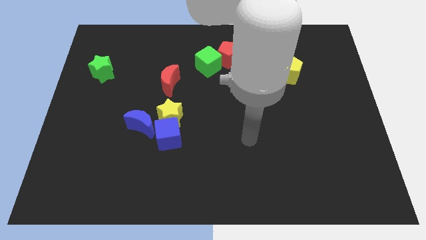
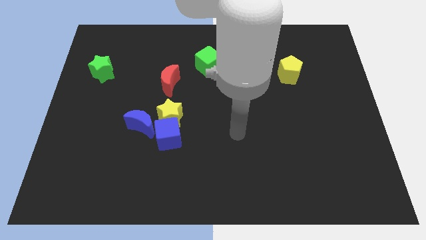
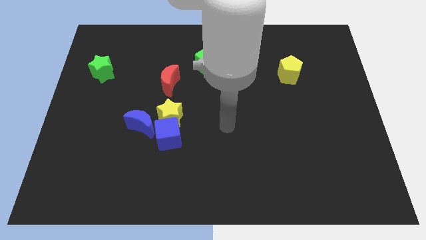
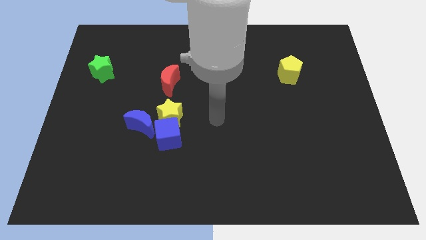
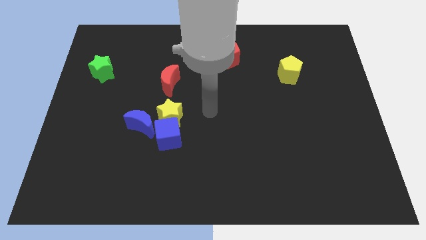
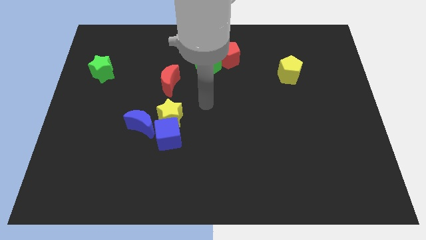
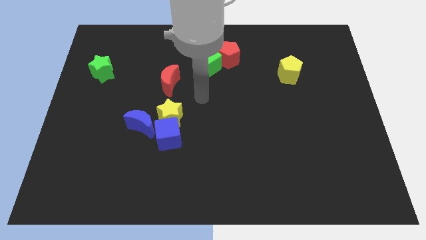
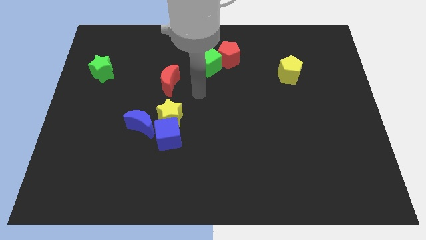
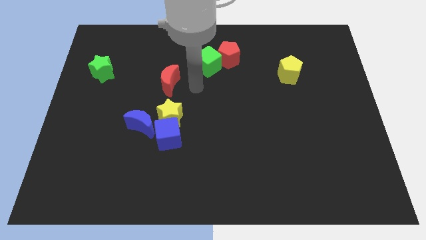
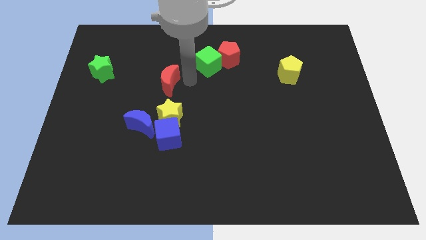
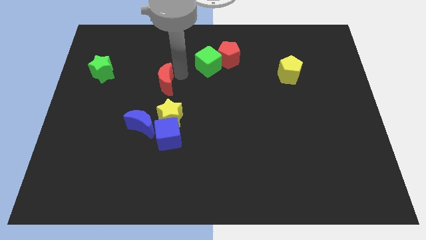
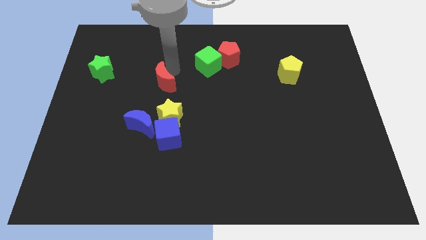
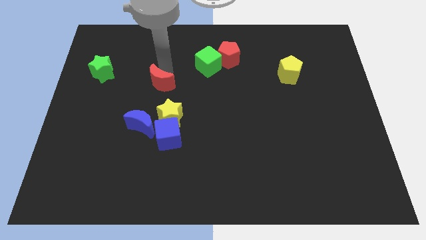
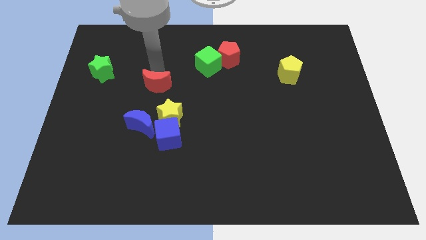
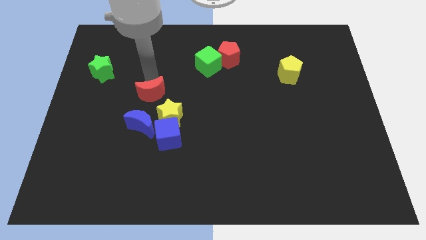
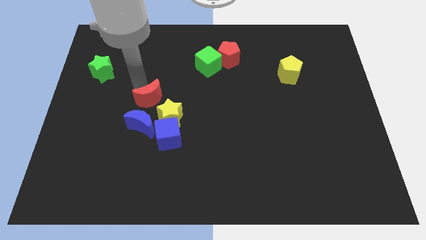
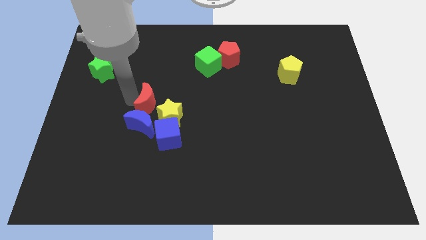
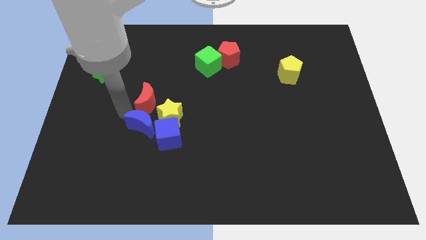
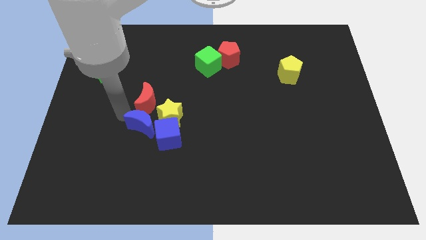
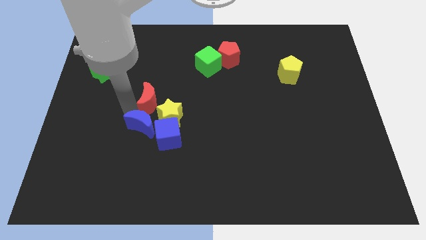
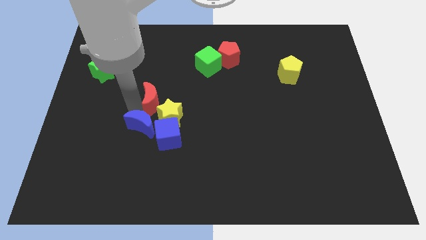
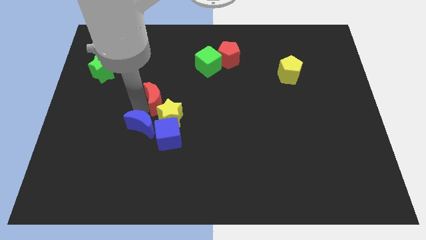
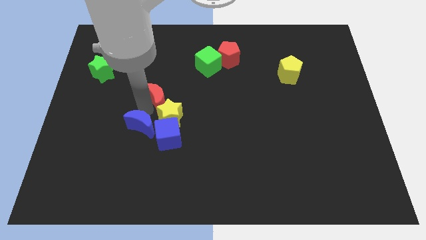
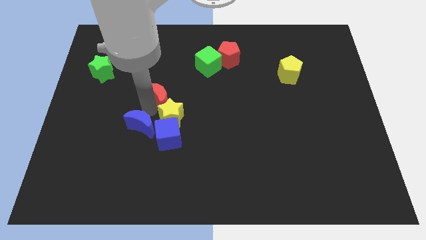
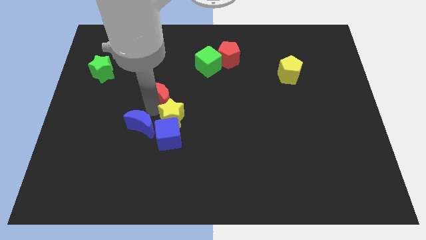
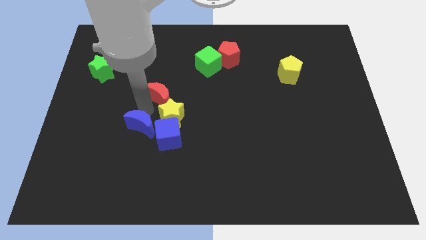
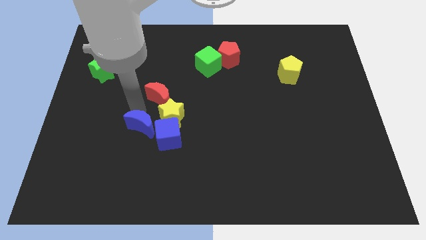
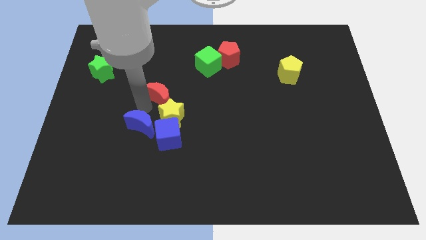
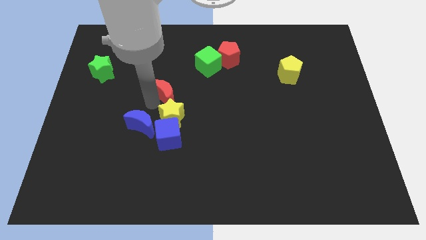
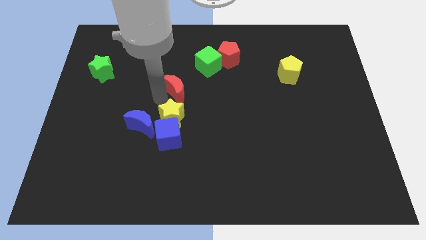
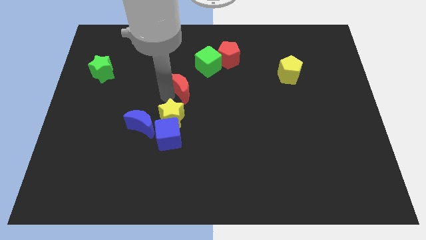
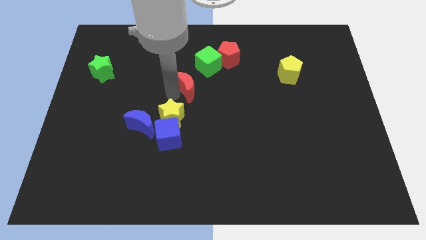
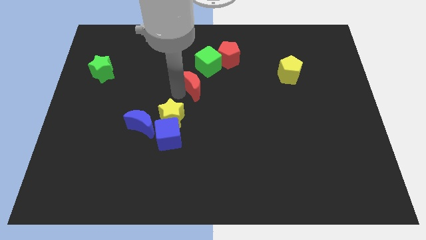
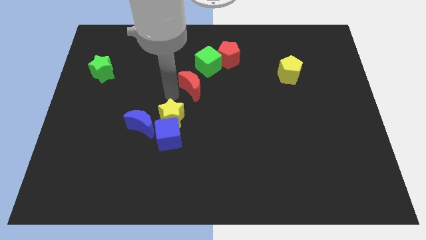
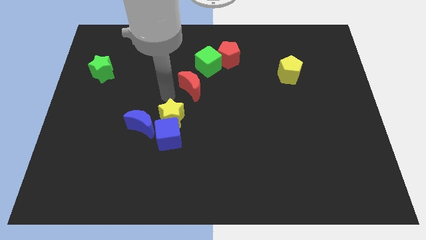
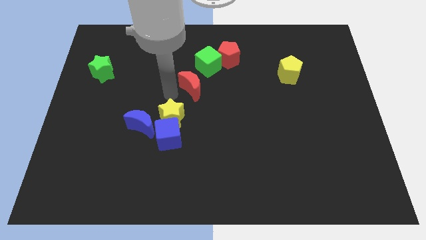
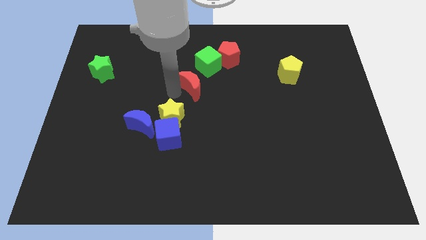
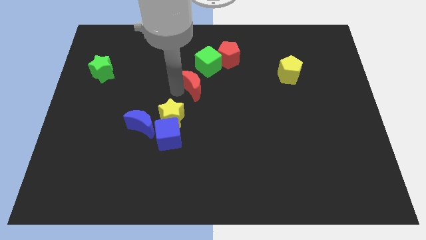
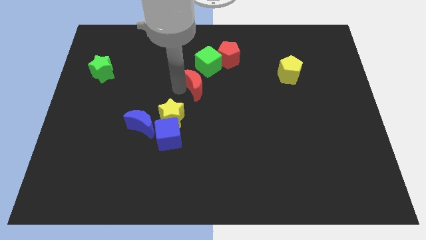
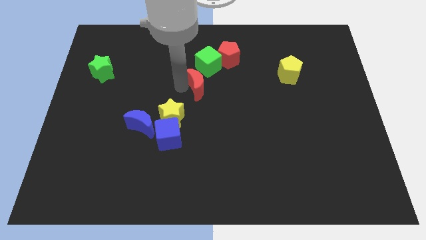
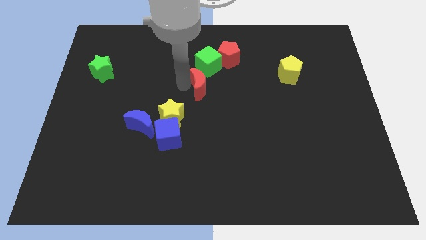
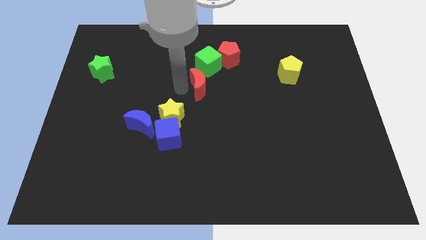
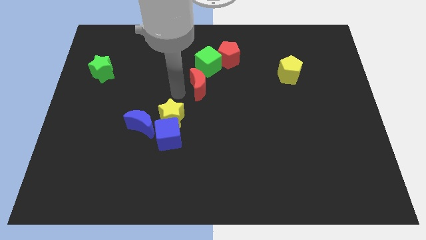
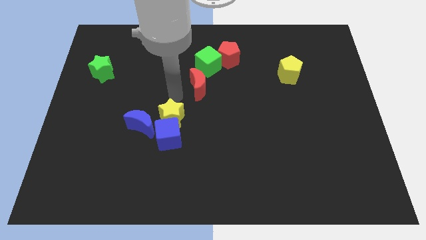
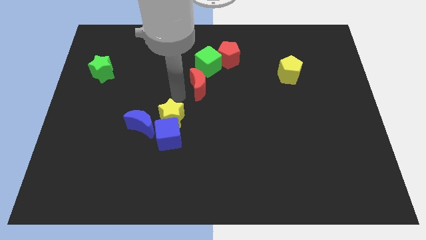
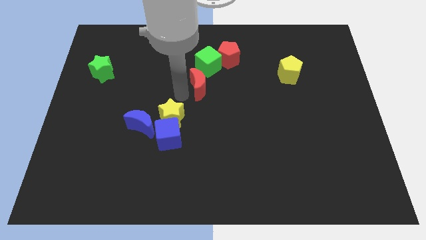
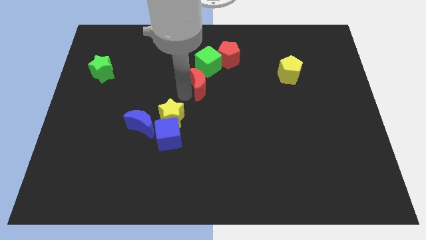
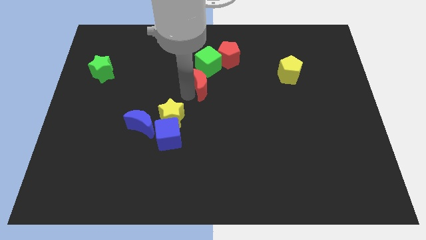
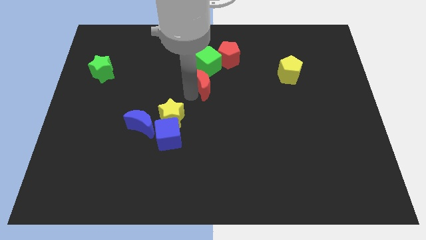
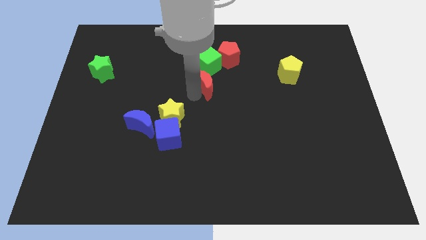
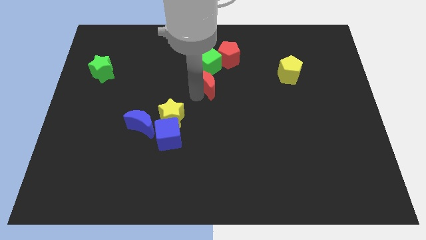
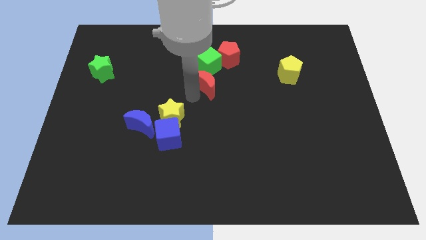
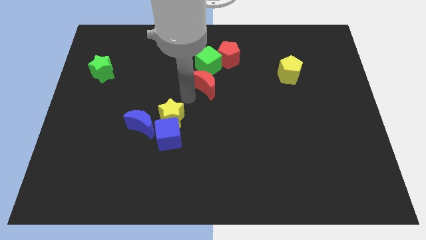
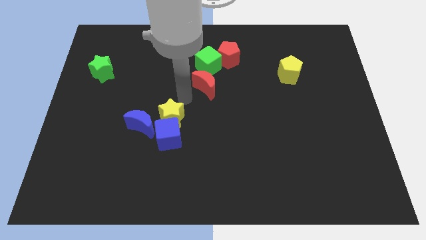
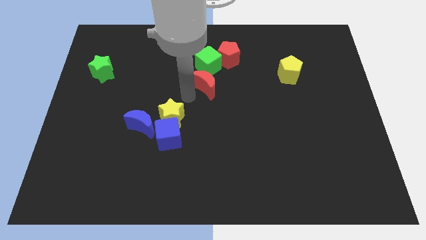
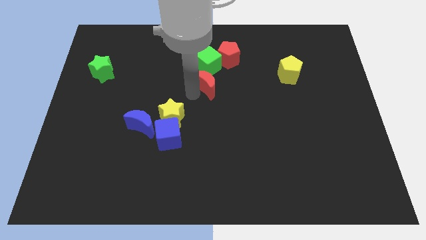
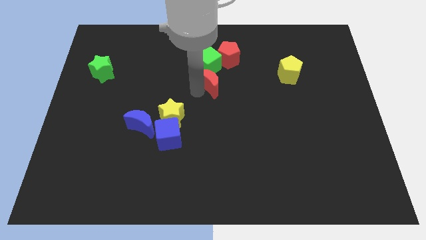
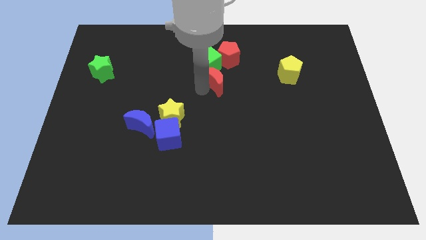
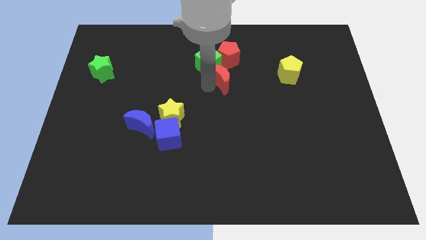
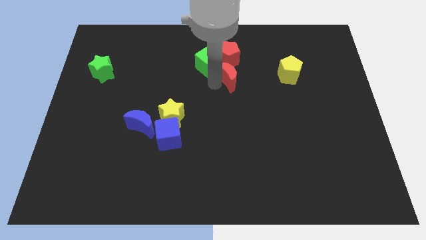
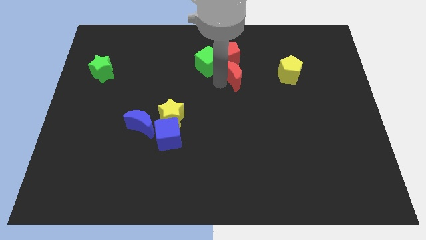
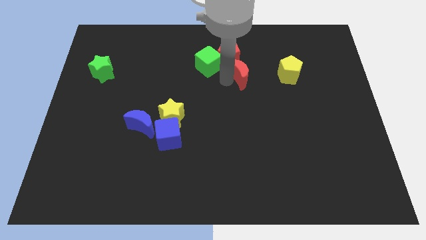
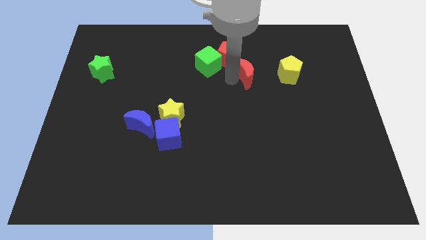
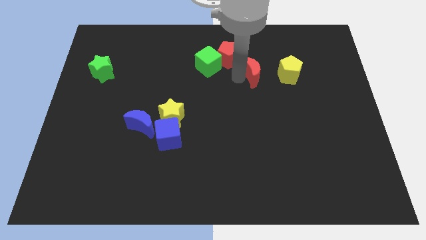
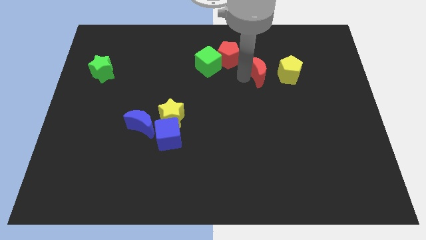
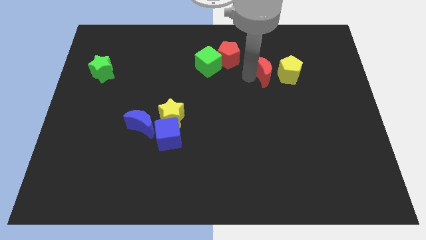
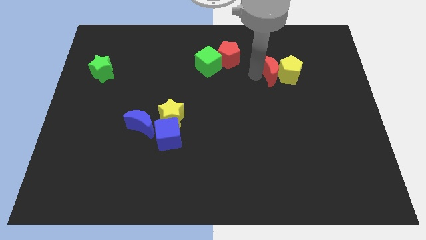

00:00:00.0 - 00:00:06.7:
put the red moon to the yellow pentagon

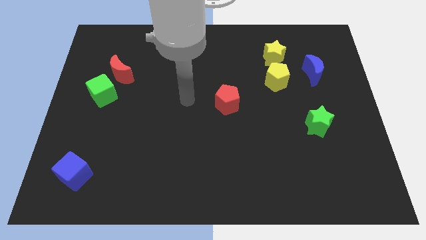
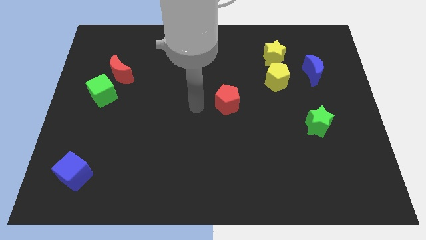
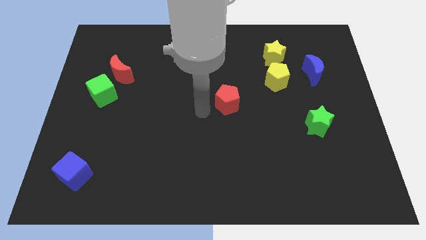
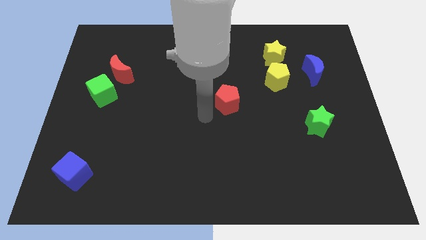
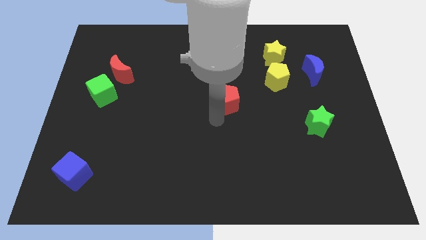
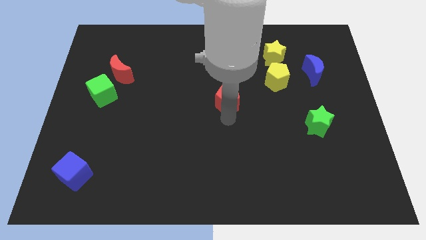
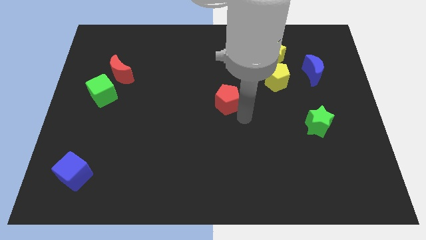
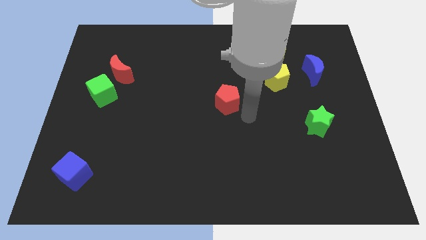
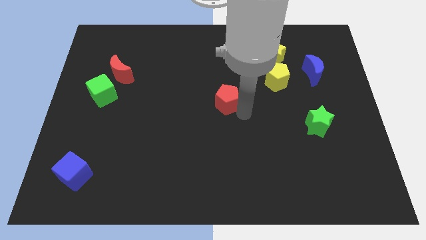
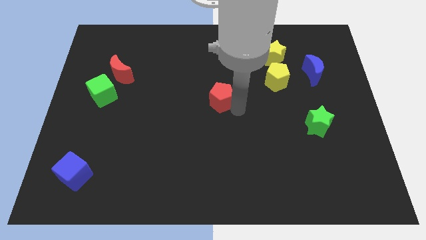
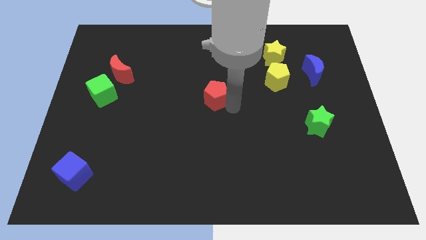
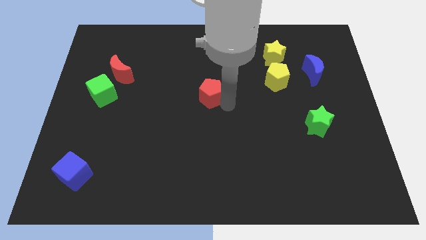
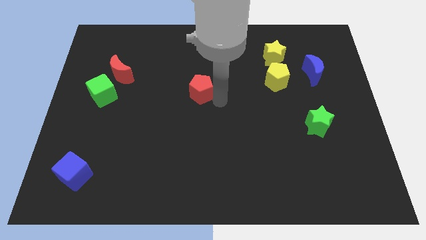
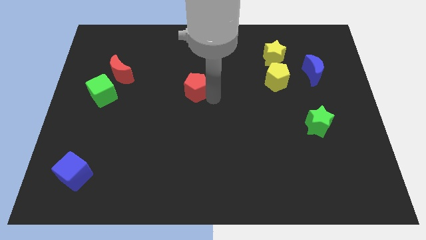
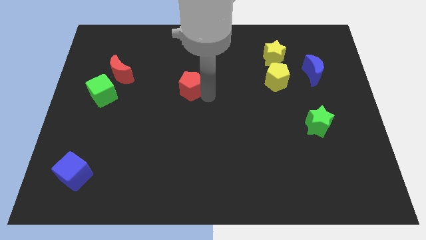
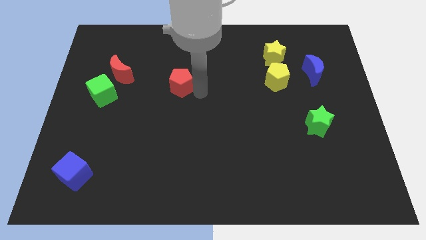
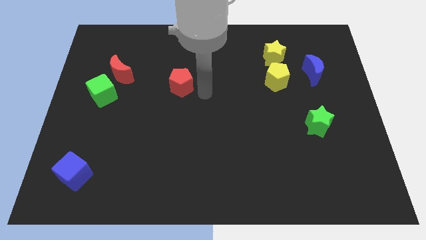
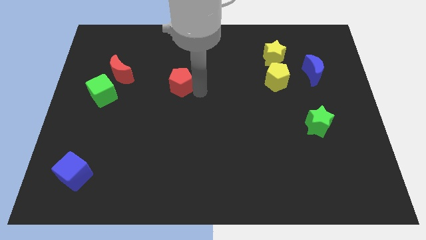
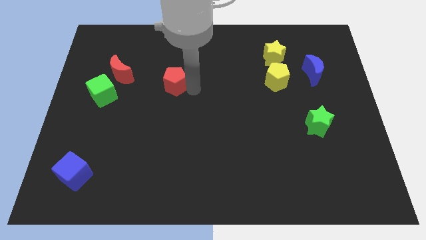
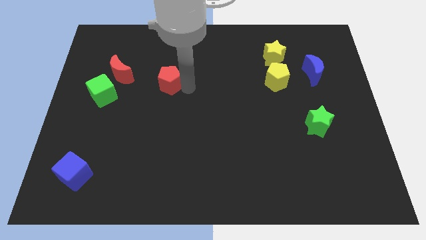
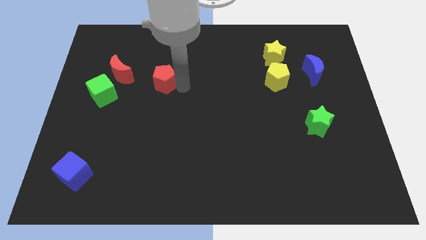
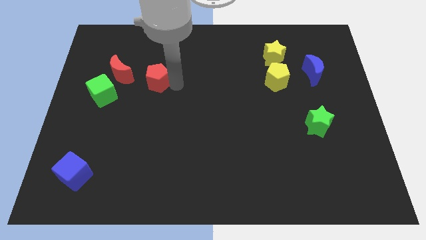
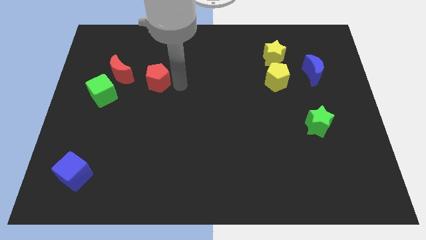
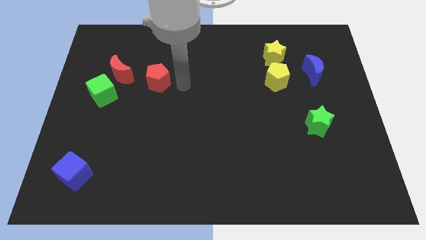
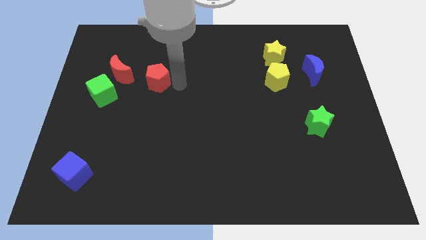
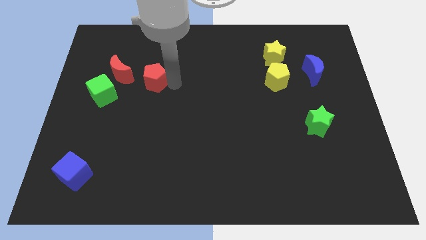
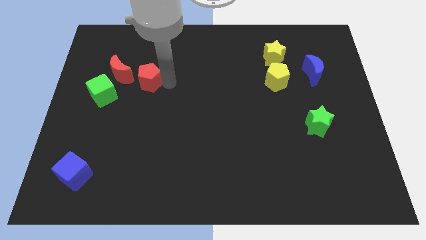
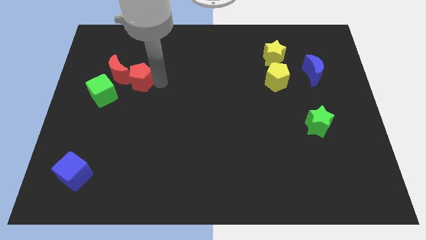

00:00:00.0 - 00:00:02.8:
slide the red pentagon next to the red moon
